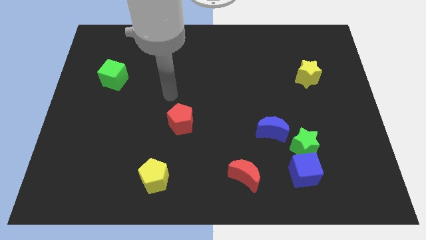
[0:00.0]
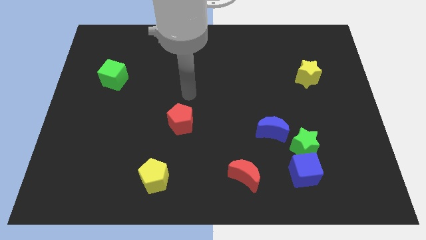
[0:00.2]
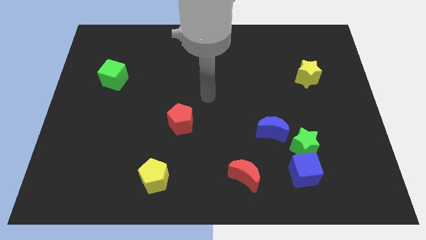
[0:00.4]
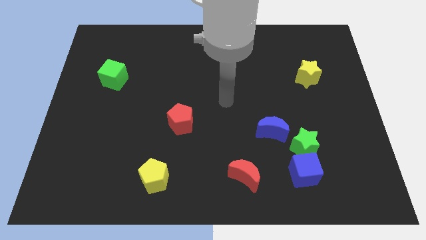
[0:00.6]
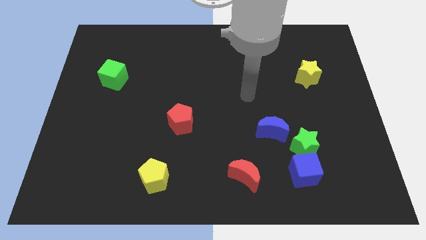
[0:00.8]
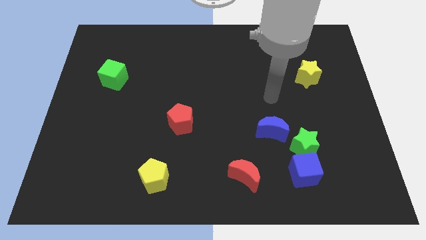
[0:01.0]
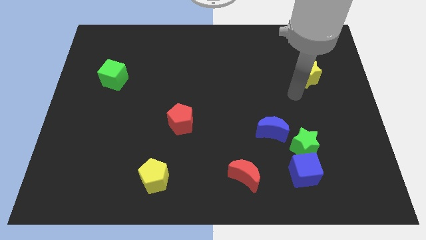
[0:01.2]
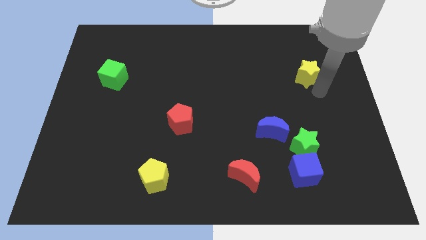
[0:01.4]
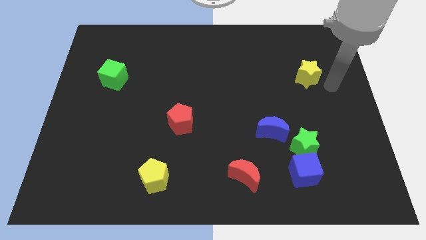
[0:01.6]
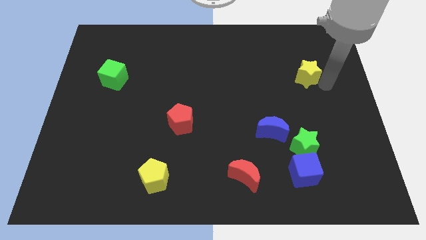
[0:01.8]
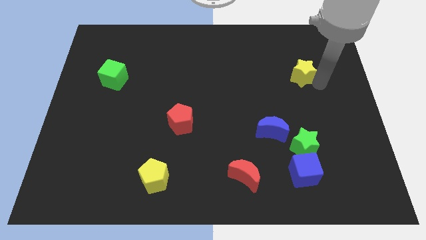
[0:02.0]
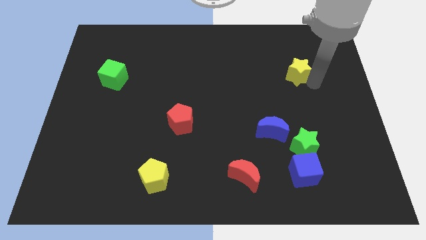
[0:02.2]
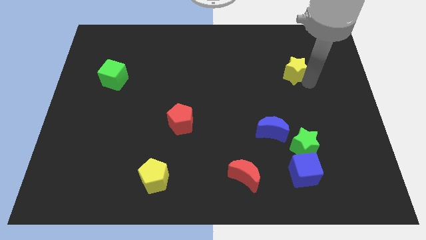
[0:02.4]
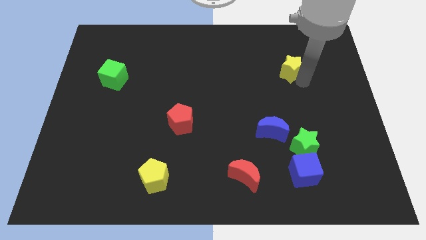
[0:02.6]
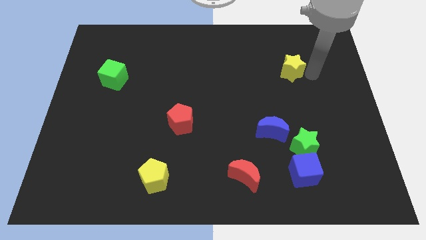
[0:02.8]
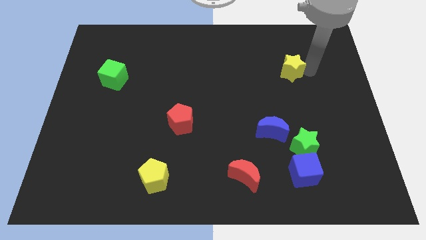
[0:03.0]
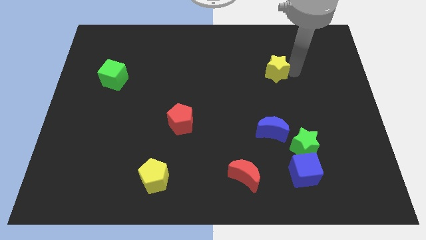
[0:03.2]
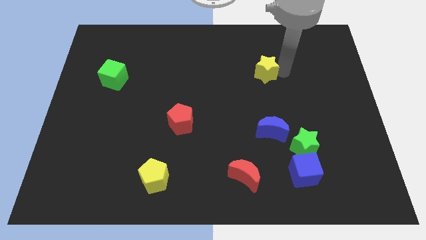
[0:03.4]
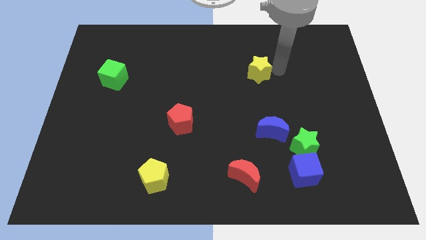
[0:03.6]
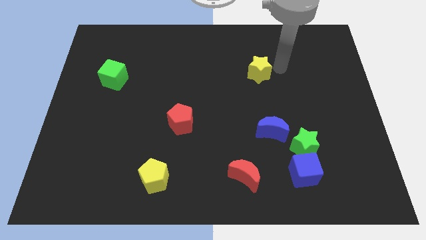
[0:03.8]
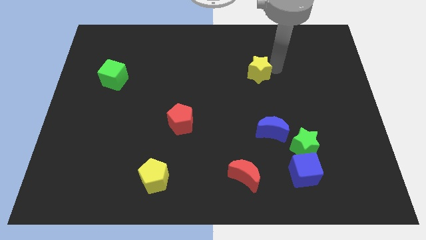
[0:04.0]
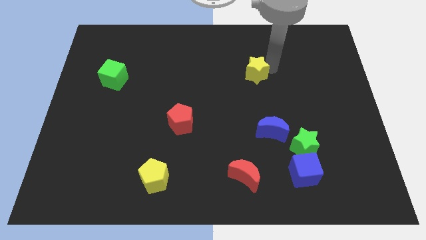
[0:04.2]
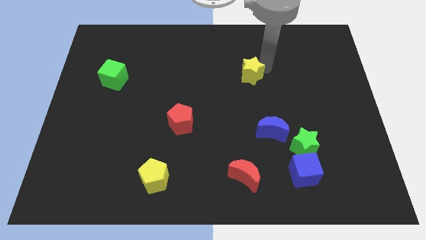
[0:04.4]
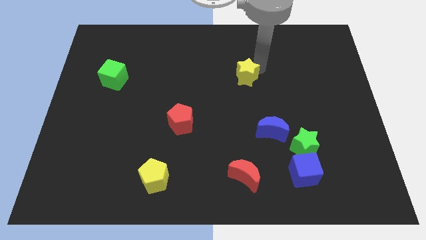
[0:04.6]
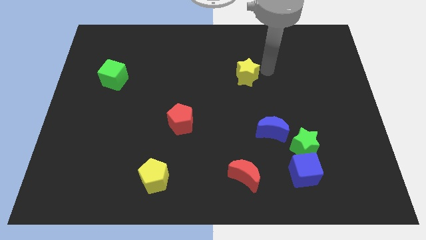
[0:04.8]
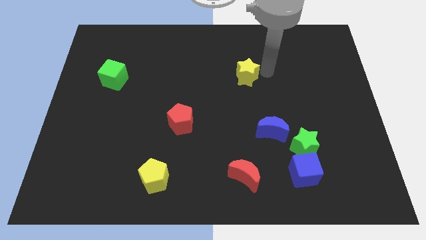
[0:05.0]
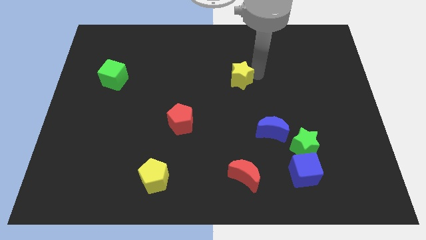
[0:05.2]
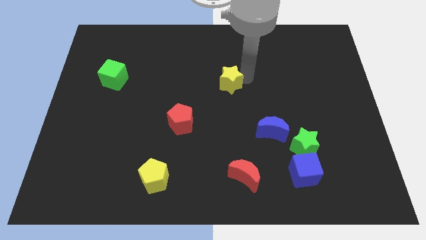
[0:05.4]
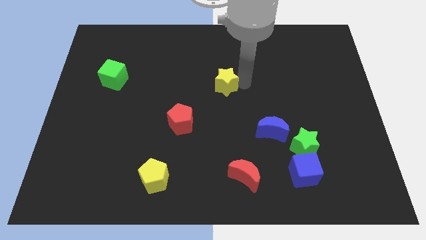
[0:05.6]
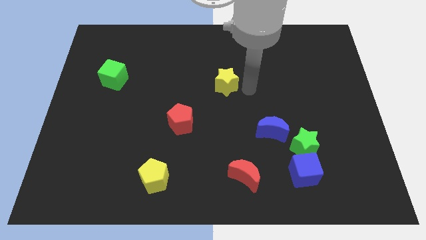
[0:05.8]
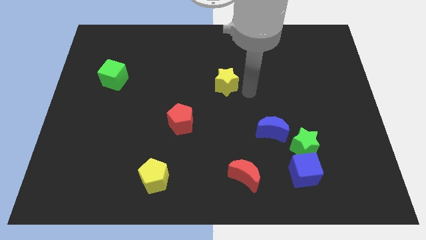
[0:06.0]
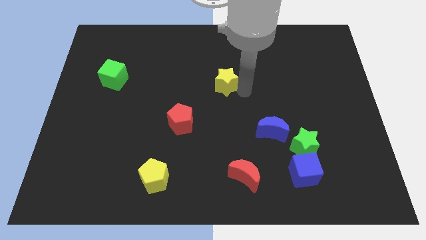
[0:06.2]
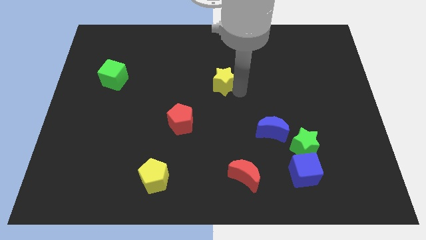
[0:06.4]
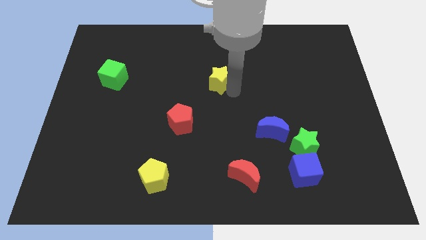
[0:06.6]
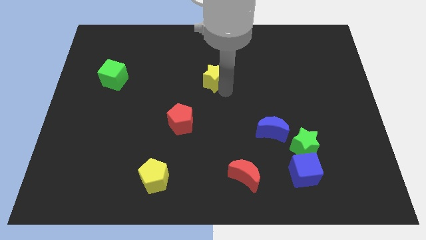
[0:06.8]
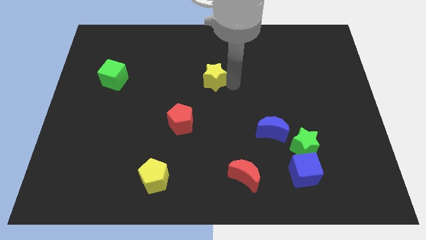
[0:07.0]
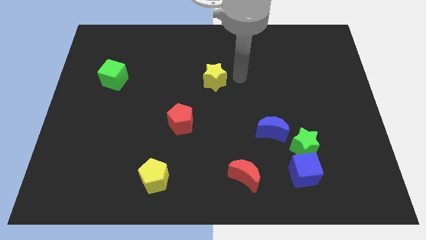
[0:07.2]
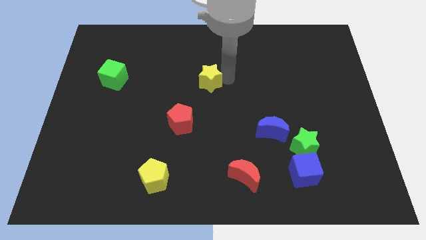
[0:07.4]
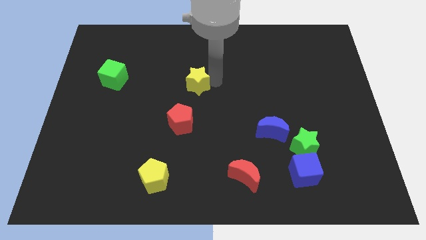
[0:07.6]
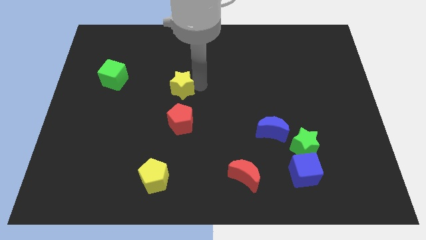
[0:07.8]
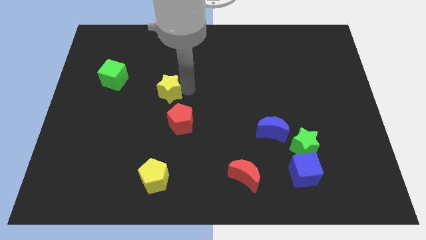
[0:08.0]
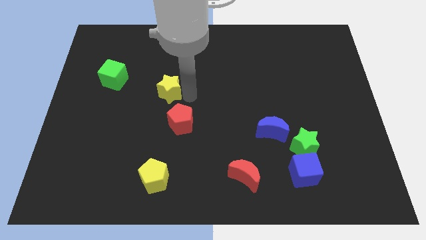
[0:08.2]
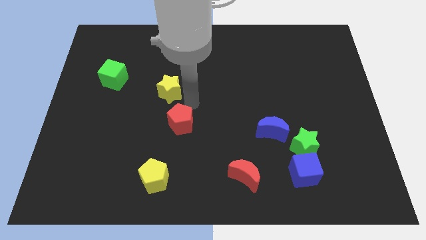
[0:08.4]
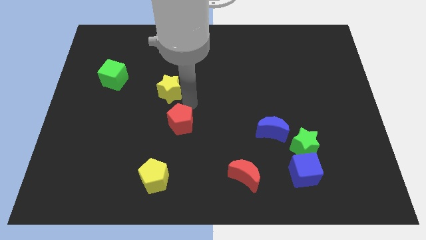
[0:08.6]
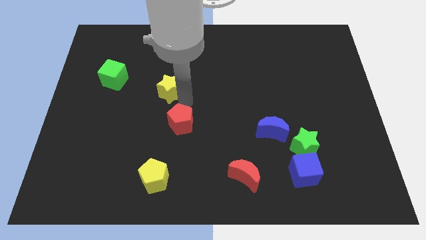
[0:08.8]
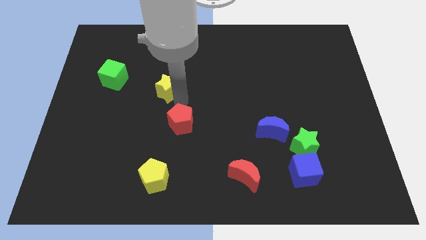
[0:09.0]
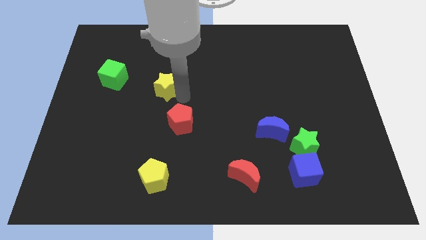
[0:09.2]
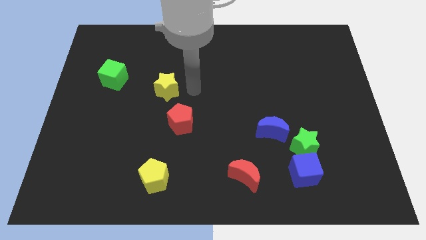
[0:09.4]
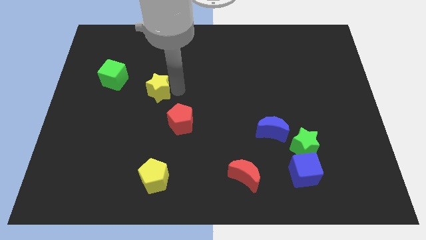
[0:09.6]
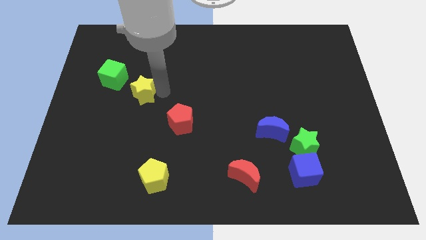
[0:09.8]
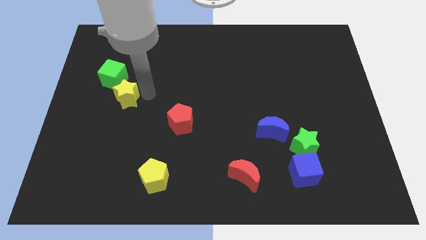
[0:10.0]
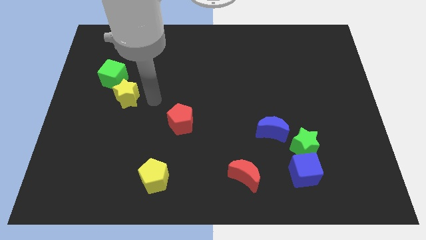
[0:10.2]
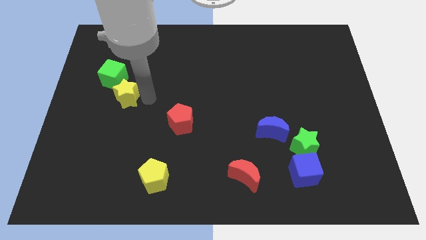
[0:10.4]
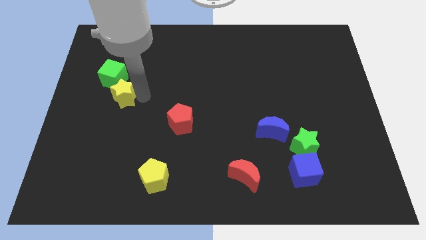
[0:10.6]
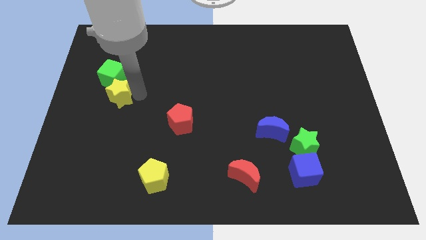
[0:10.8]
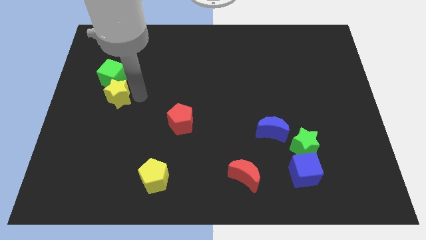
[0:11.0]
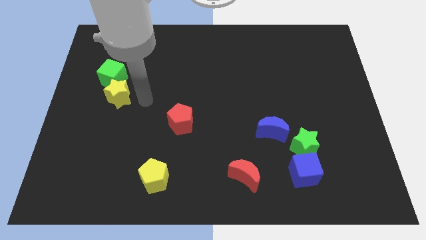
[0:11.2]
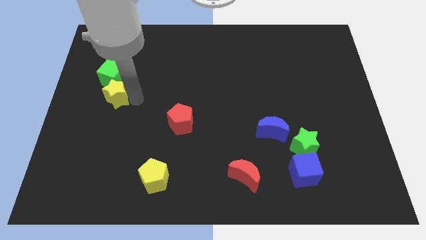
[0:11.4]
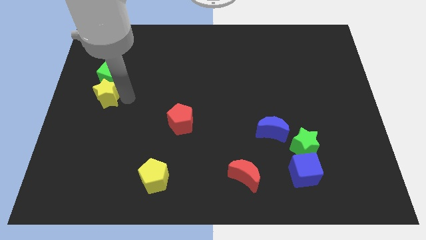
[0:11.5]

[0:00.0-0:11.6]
move the yellow star to the left side of the board
